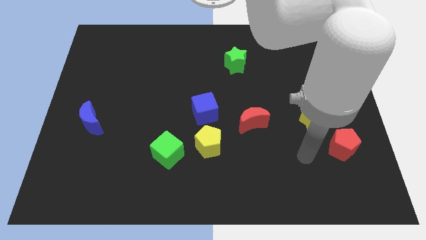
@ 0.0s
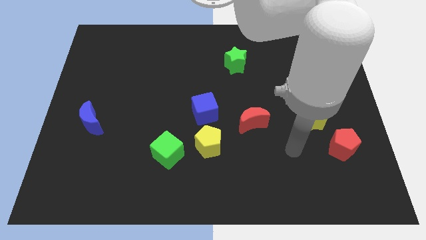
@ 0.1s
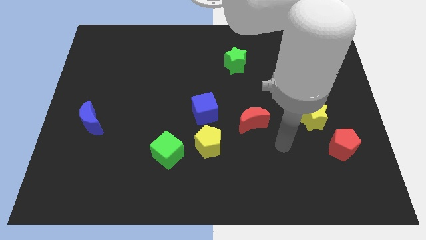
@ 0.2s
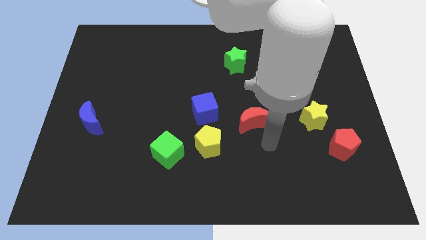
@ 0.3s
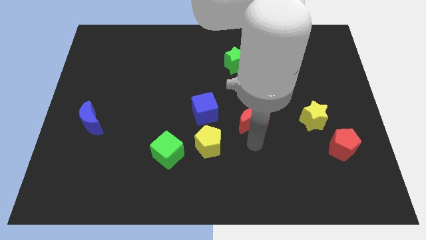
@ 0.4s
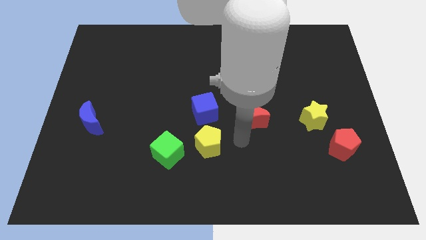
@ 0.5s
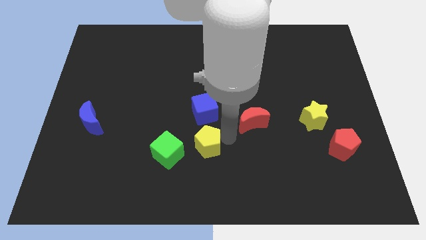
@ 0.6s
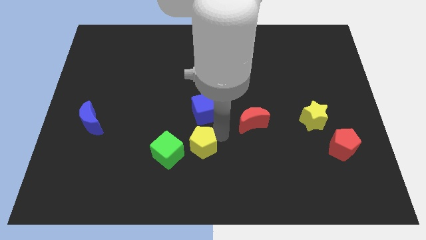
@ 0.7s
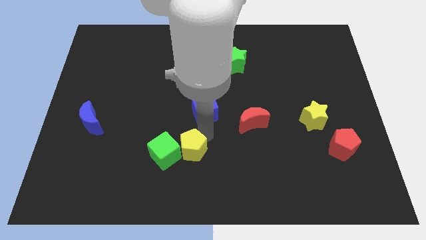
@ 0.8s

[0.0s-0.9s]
move the blue cube away from the yellow pentagon

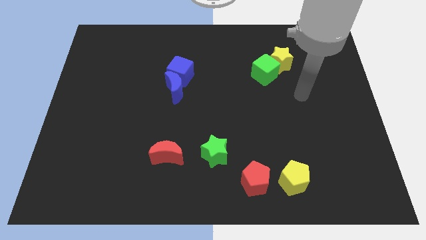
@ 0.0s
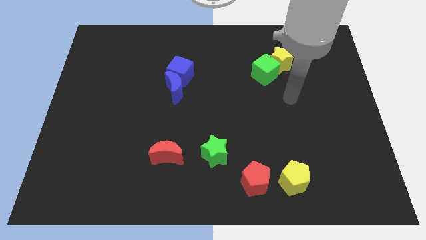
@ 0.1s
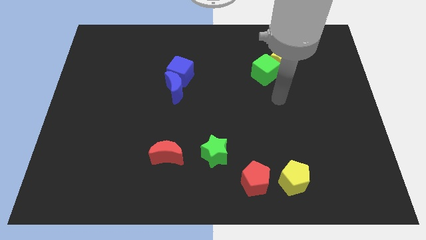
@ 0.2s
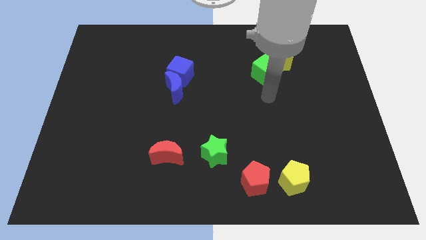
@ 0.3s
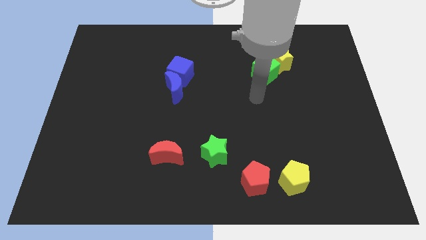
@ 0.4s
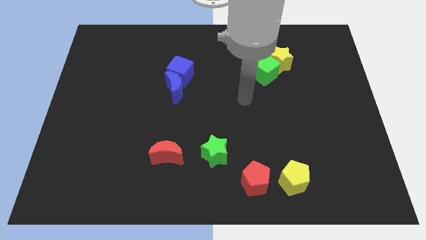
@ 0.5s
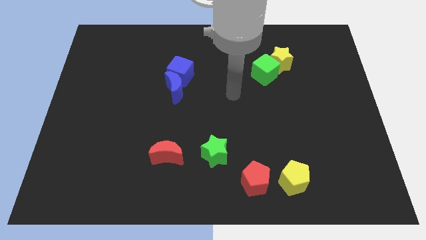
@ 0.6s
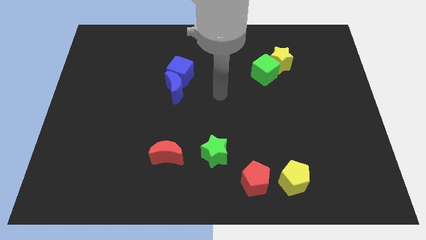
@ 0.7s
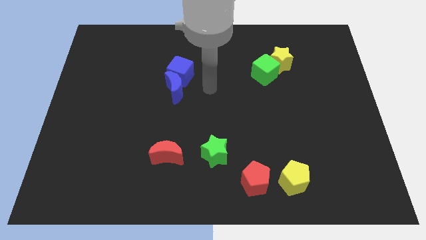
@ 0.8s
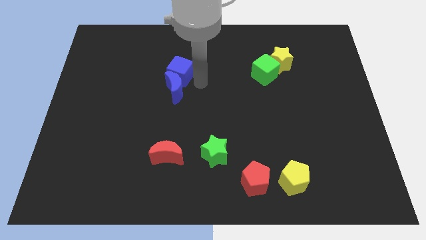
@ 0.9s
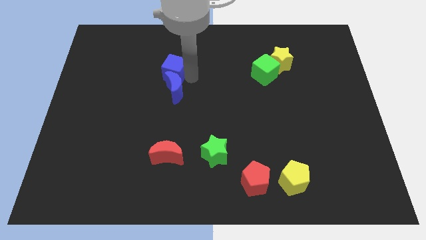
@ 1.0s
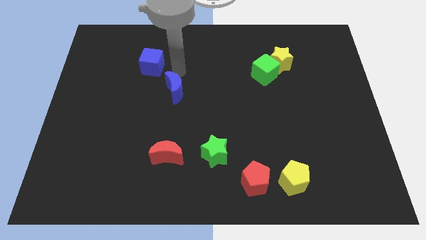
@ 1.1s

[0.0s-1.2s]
move the blue moon away from the blue cube

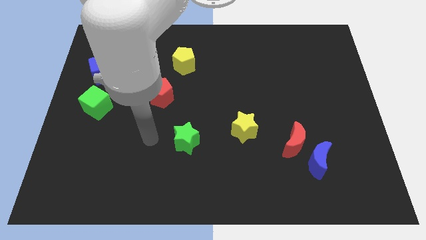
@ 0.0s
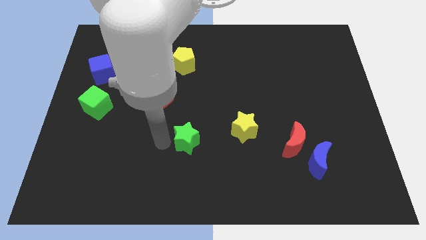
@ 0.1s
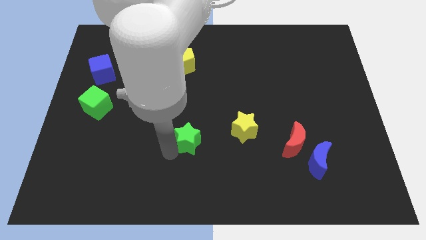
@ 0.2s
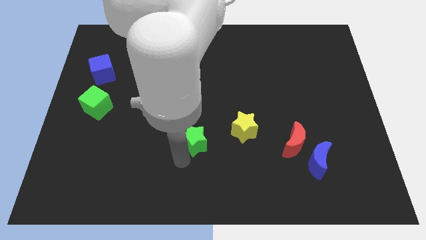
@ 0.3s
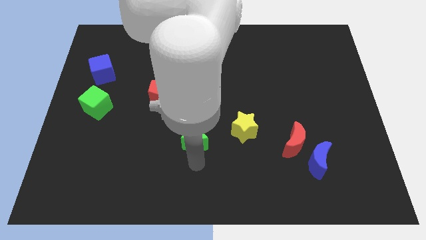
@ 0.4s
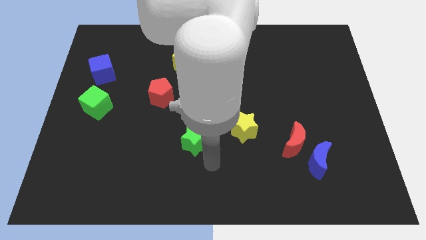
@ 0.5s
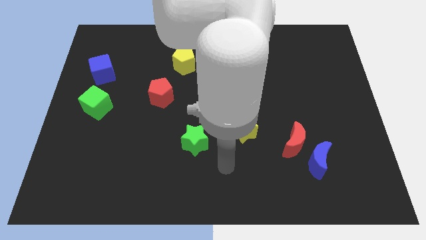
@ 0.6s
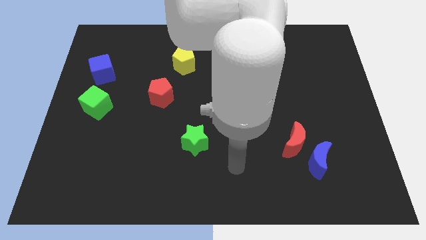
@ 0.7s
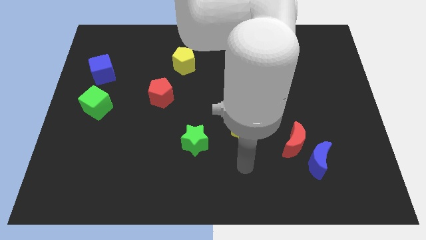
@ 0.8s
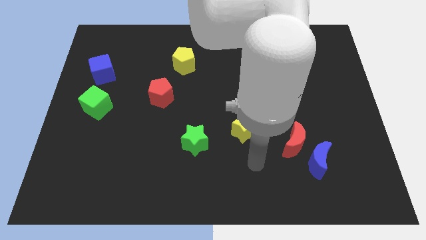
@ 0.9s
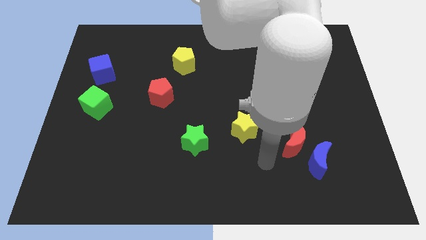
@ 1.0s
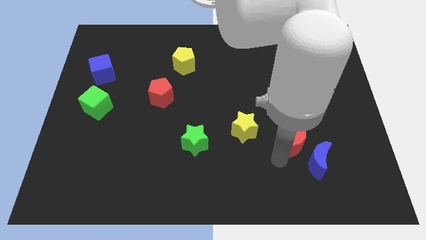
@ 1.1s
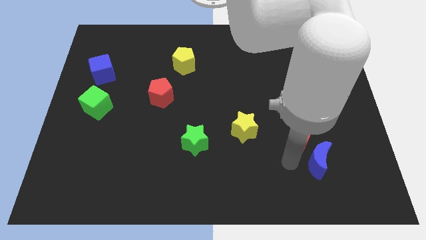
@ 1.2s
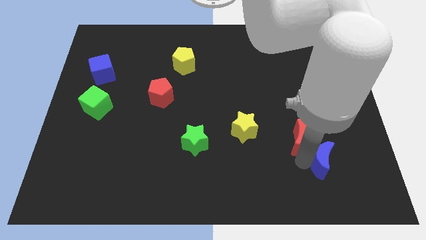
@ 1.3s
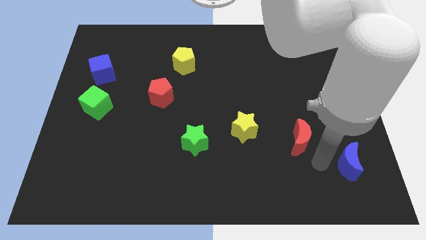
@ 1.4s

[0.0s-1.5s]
pull the red moon apart from the blue moon

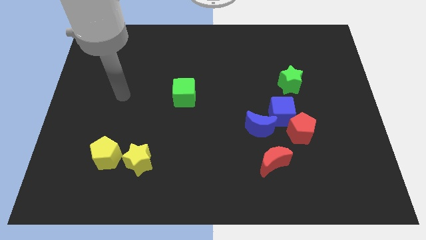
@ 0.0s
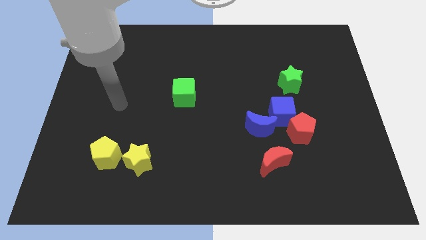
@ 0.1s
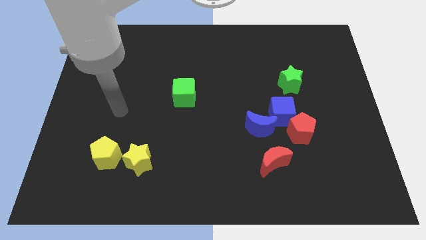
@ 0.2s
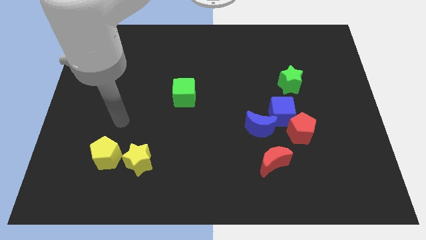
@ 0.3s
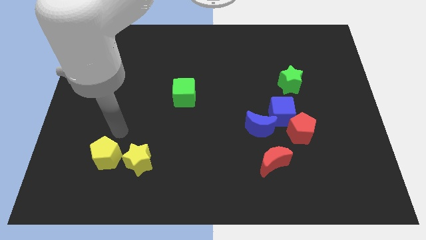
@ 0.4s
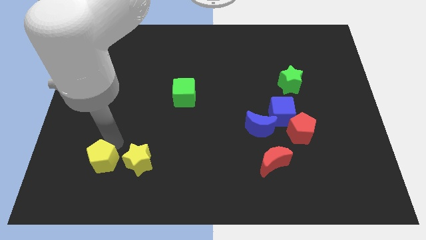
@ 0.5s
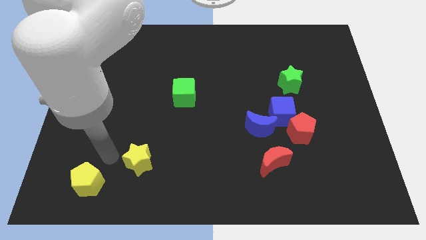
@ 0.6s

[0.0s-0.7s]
pull the yellow star apart from the yellow pentagon

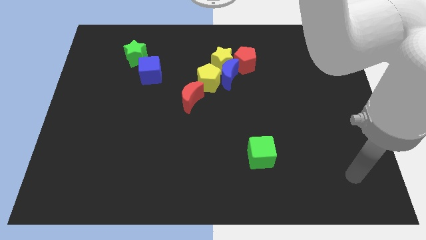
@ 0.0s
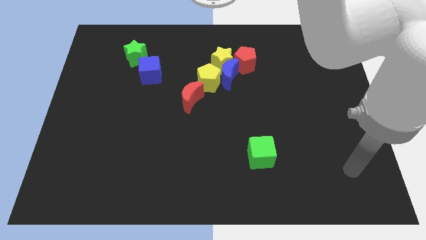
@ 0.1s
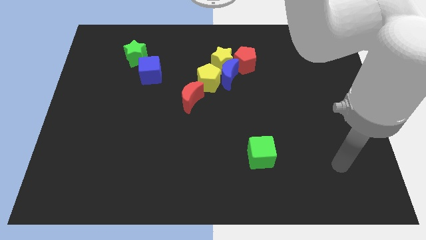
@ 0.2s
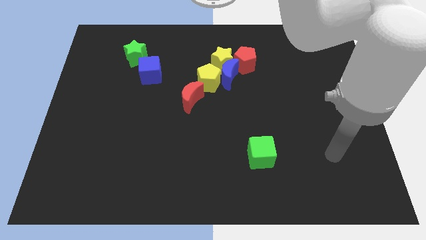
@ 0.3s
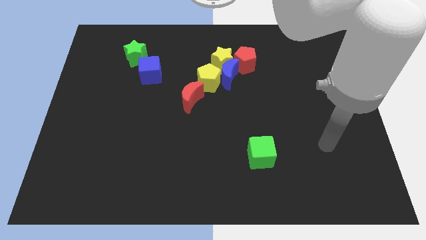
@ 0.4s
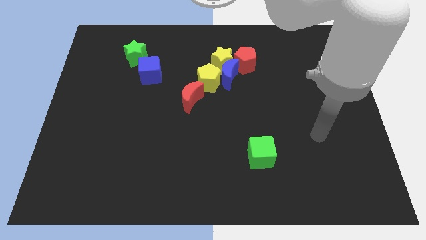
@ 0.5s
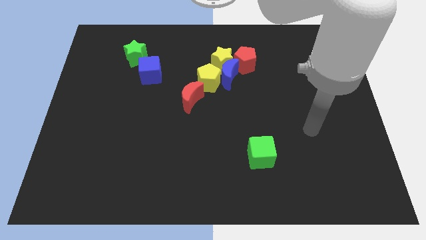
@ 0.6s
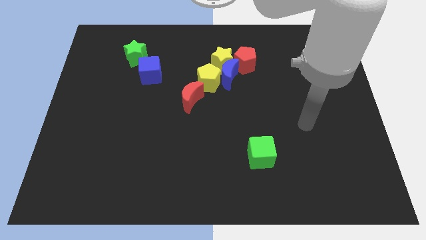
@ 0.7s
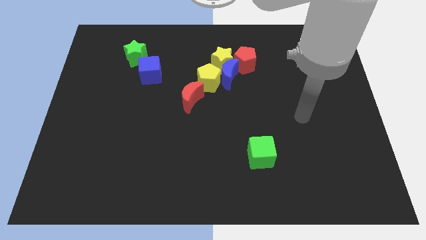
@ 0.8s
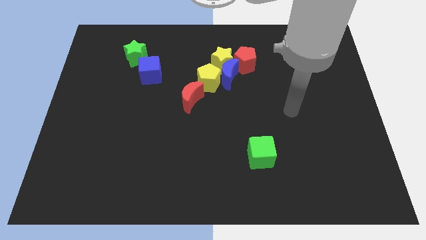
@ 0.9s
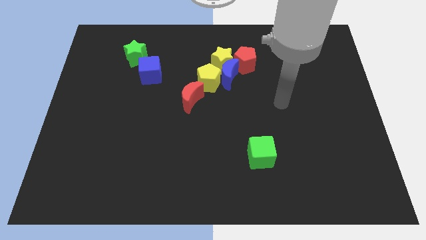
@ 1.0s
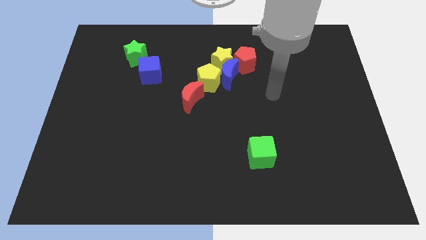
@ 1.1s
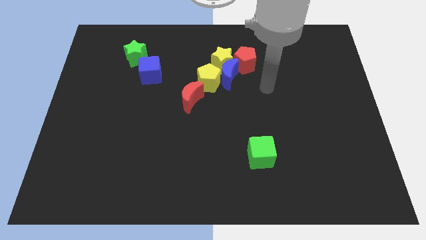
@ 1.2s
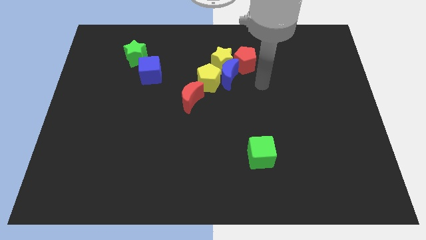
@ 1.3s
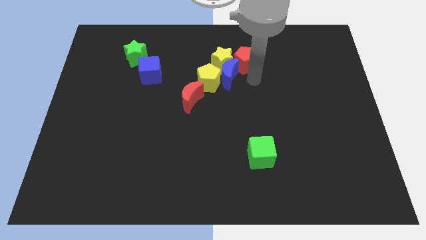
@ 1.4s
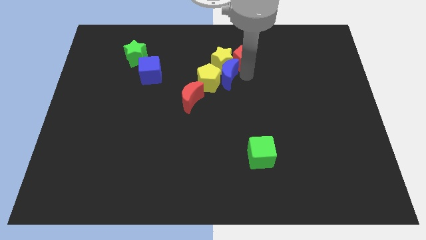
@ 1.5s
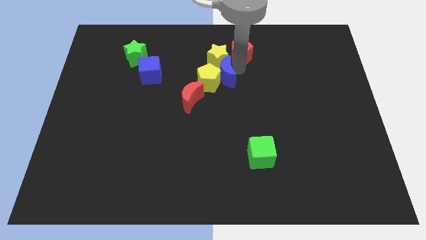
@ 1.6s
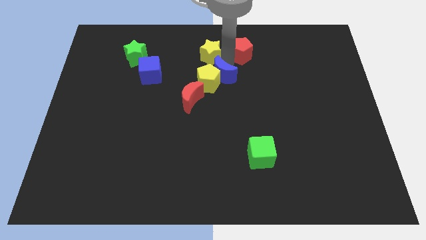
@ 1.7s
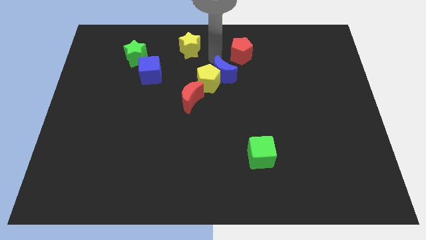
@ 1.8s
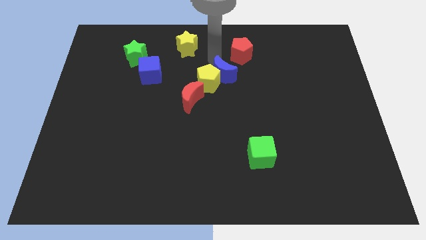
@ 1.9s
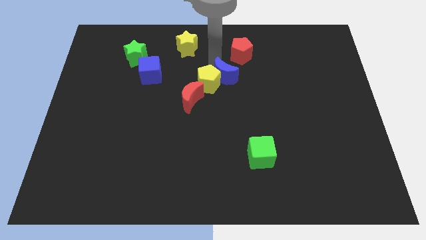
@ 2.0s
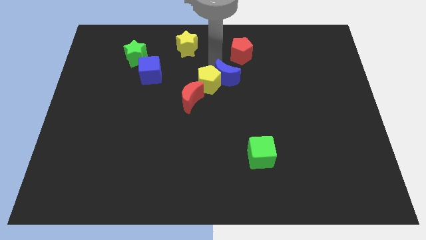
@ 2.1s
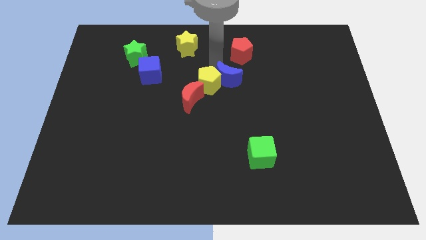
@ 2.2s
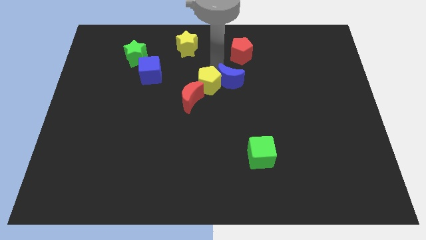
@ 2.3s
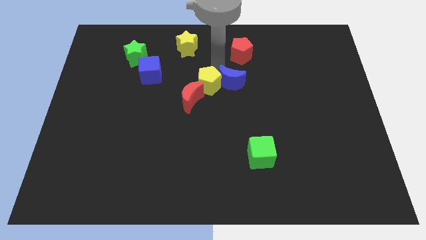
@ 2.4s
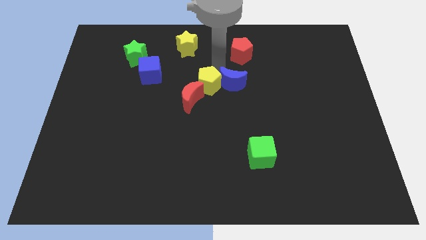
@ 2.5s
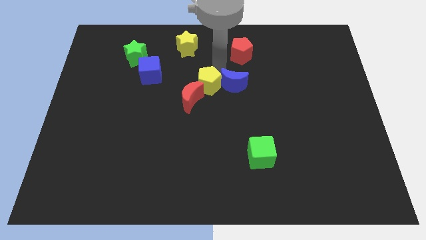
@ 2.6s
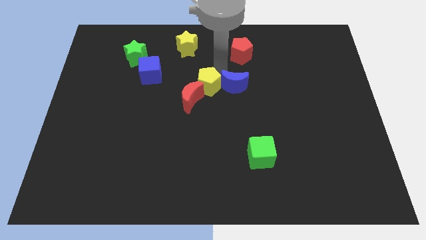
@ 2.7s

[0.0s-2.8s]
pull the blue moon apart from the group of blocks

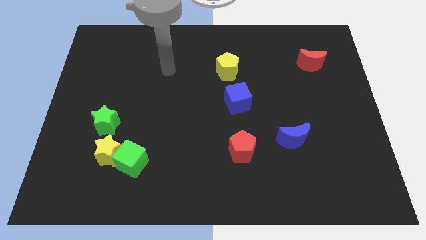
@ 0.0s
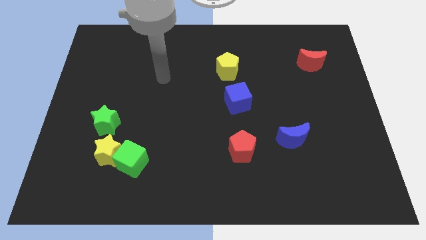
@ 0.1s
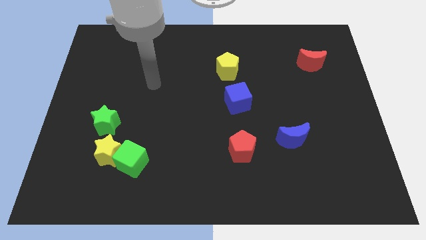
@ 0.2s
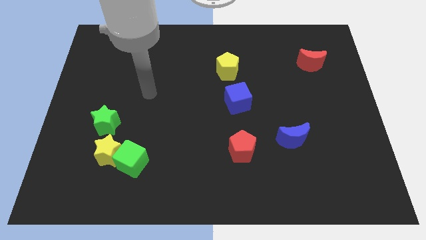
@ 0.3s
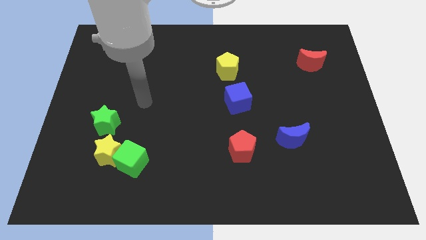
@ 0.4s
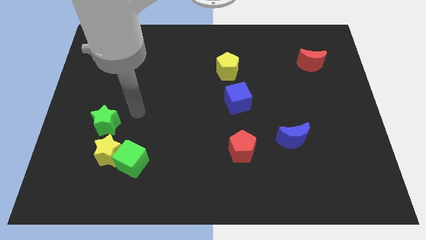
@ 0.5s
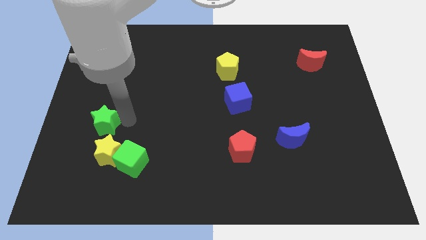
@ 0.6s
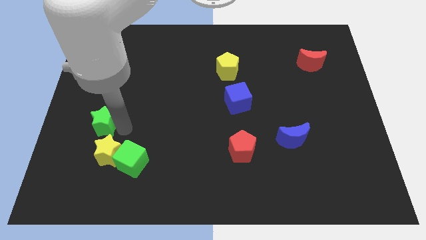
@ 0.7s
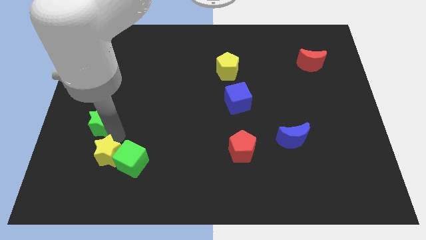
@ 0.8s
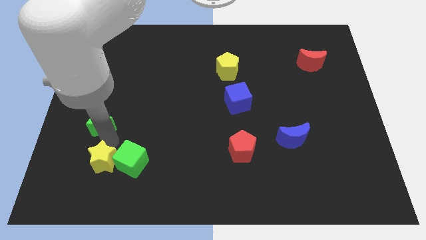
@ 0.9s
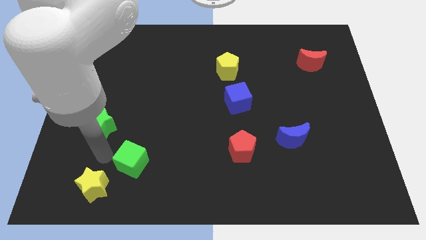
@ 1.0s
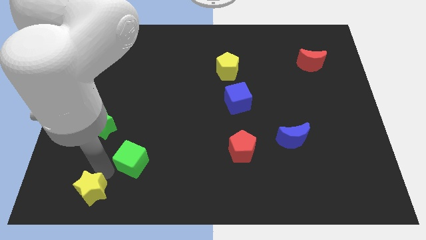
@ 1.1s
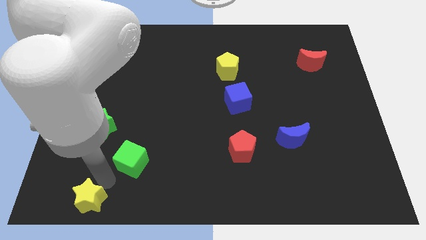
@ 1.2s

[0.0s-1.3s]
separate the green cube from the yellow star

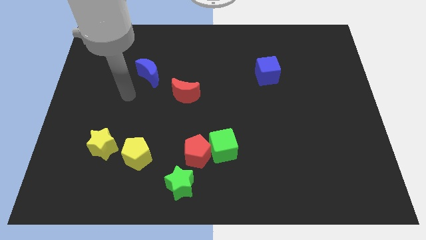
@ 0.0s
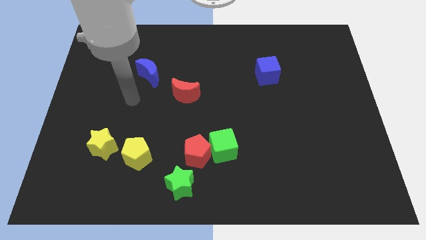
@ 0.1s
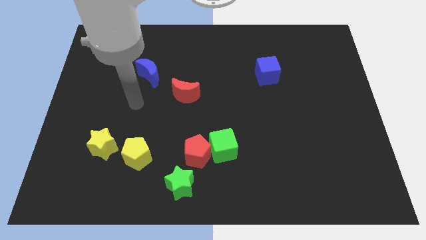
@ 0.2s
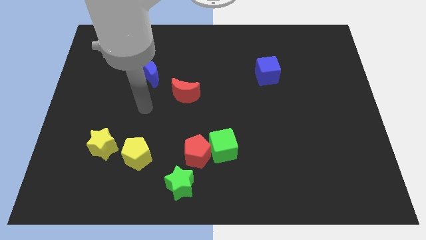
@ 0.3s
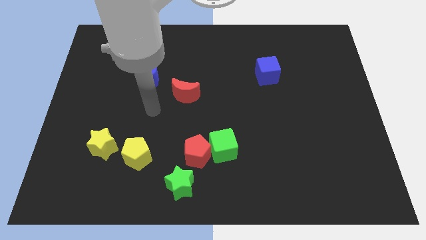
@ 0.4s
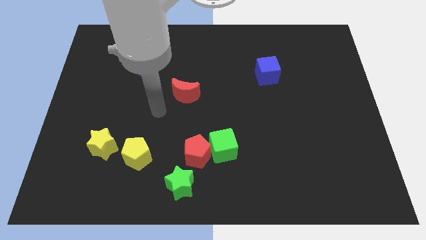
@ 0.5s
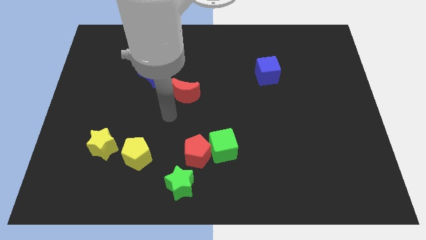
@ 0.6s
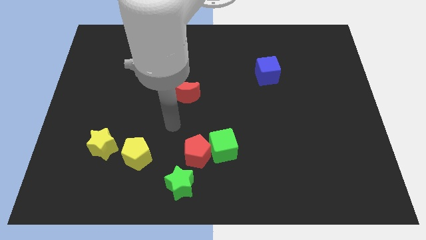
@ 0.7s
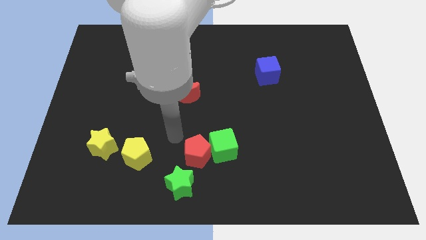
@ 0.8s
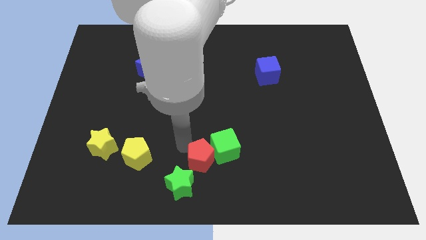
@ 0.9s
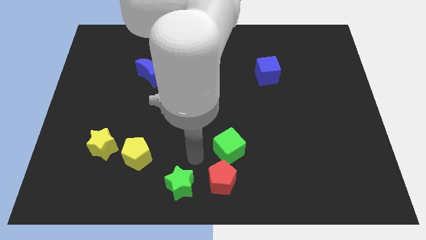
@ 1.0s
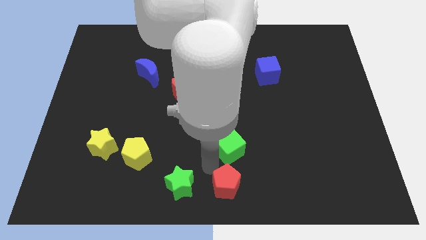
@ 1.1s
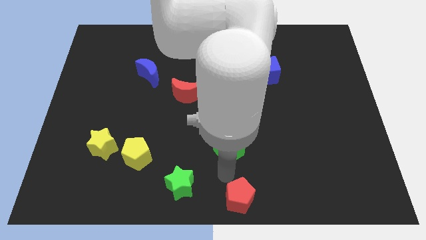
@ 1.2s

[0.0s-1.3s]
separate the green cube from the red pentagon
